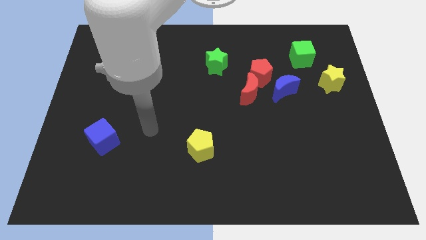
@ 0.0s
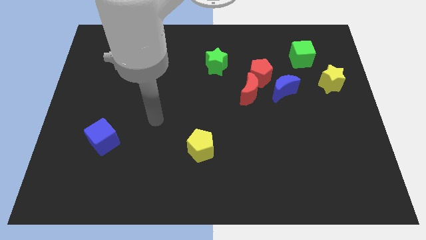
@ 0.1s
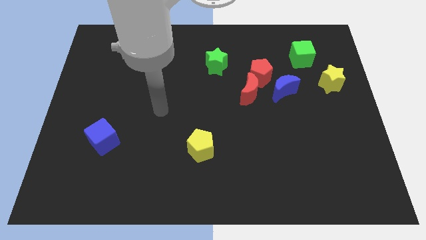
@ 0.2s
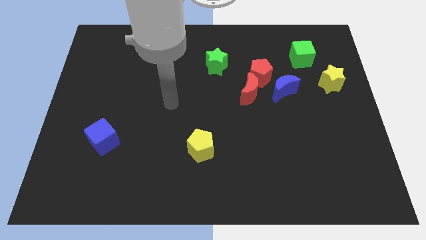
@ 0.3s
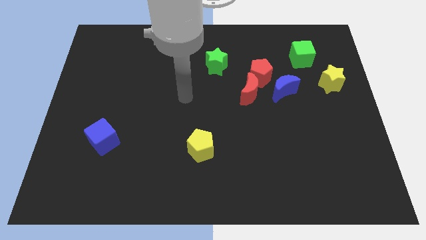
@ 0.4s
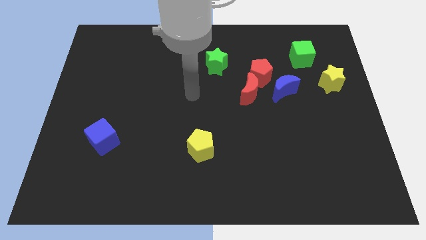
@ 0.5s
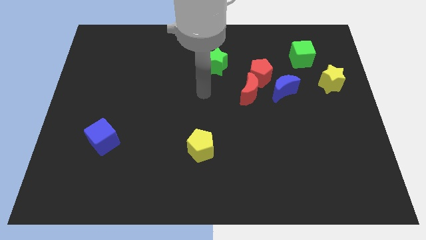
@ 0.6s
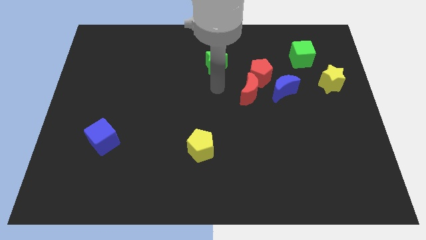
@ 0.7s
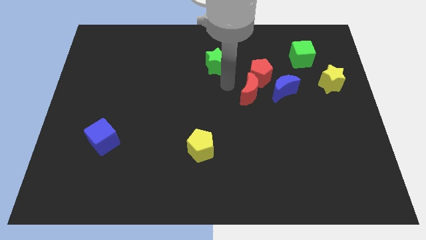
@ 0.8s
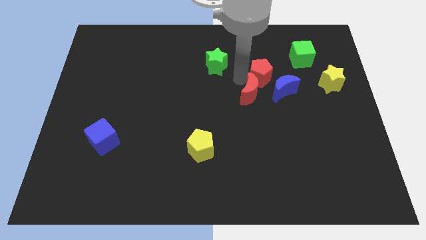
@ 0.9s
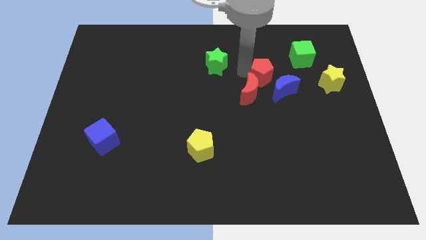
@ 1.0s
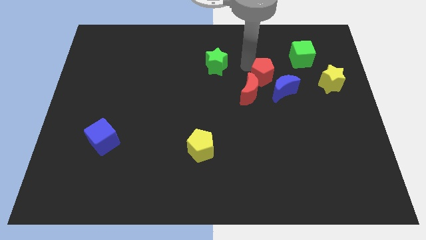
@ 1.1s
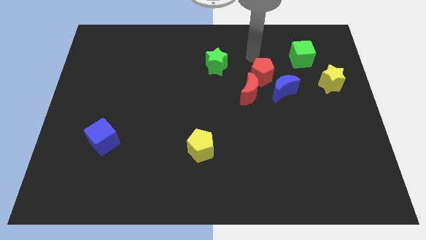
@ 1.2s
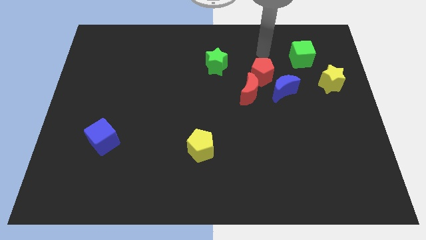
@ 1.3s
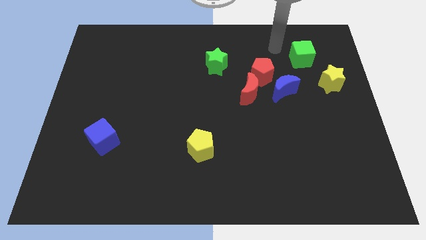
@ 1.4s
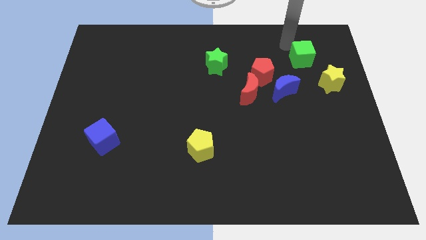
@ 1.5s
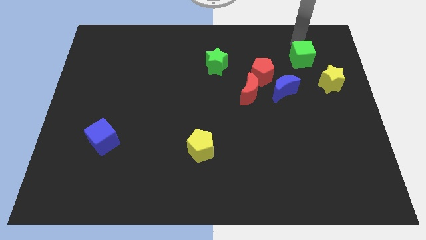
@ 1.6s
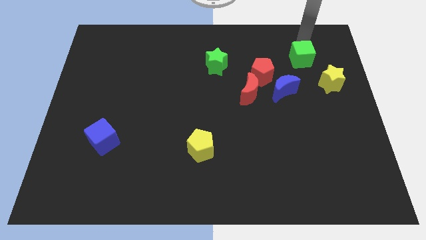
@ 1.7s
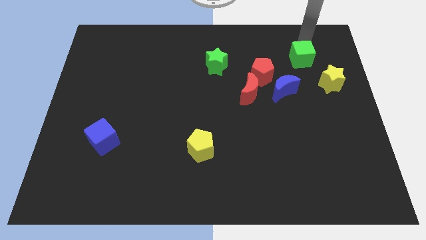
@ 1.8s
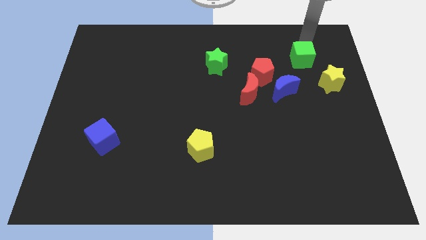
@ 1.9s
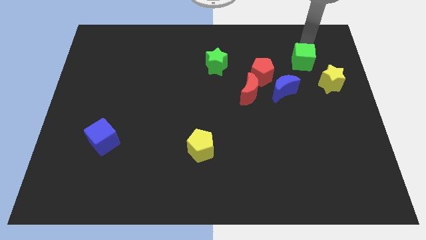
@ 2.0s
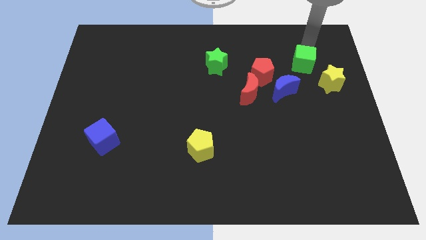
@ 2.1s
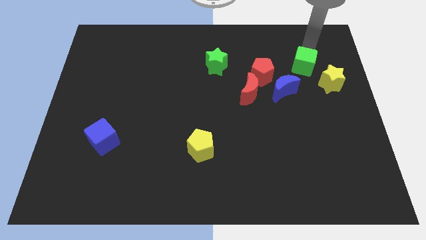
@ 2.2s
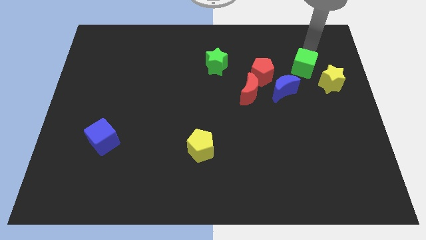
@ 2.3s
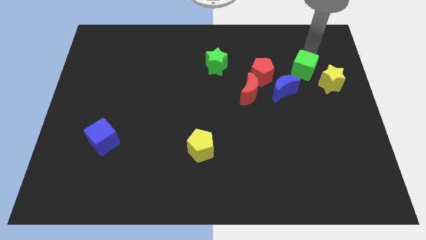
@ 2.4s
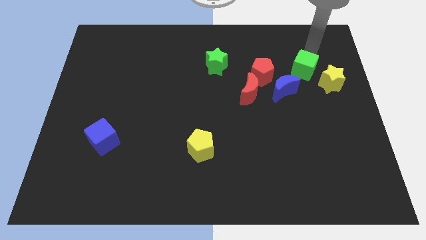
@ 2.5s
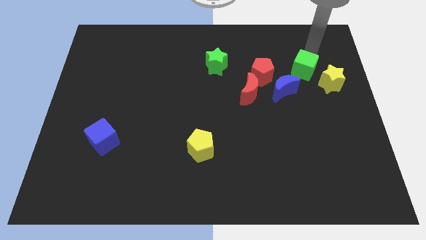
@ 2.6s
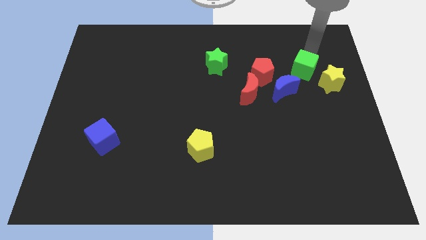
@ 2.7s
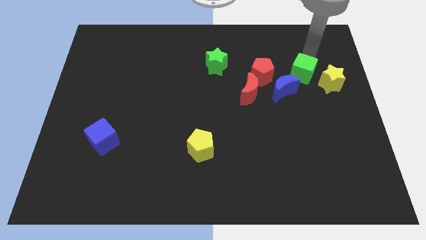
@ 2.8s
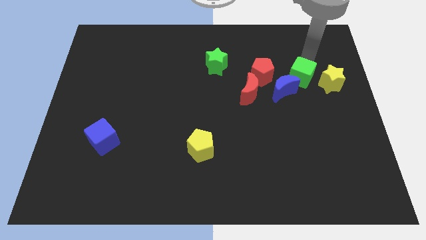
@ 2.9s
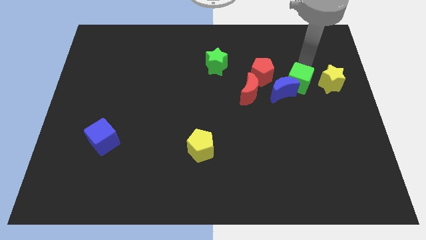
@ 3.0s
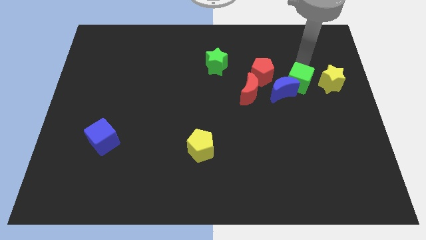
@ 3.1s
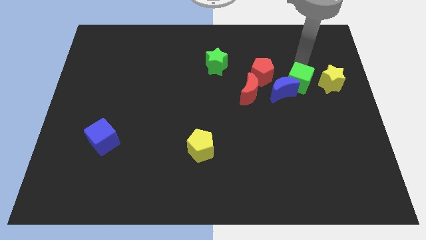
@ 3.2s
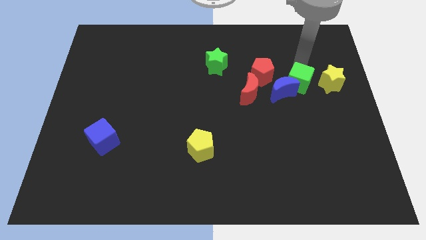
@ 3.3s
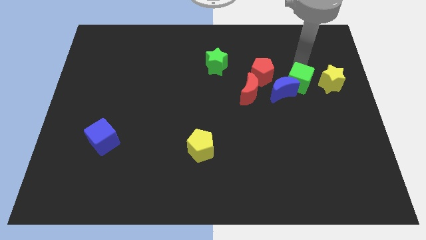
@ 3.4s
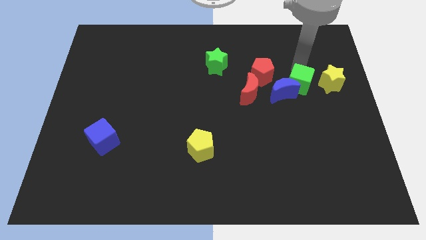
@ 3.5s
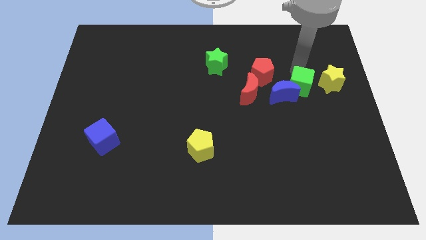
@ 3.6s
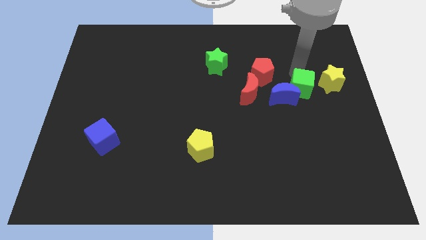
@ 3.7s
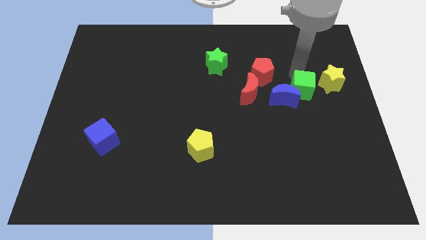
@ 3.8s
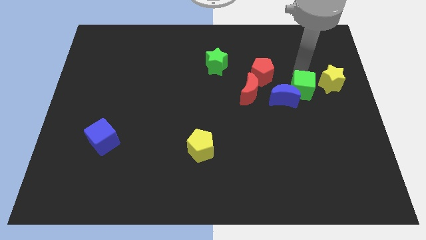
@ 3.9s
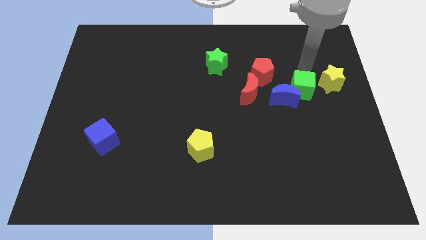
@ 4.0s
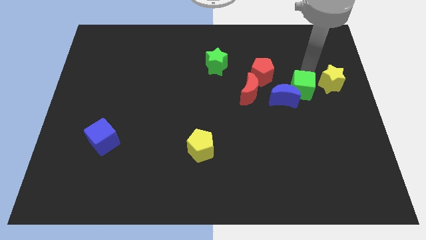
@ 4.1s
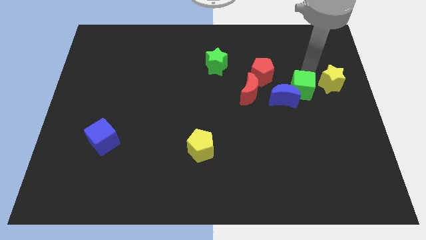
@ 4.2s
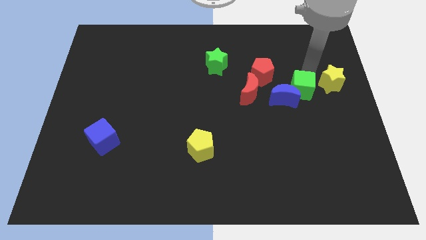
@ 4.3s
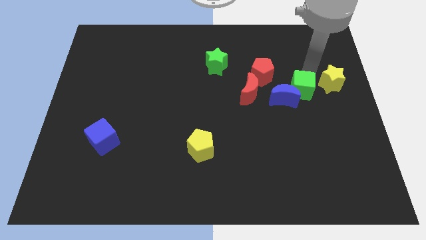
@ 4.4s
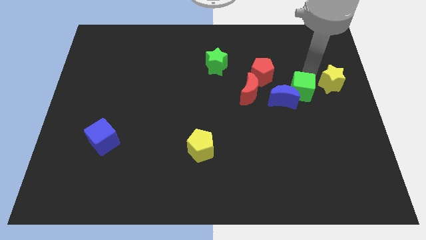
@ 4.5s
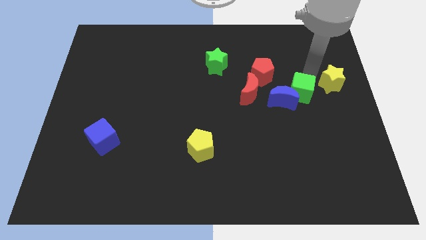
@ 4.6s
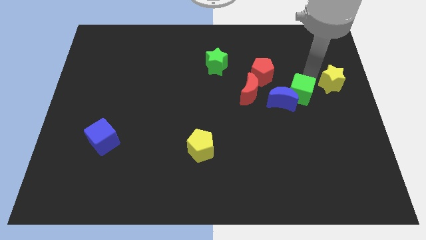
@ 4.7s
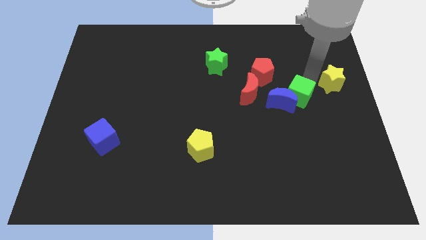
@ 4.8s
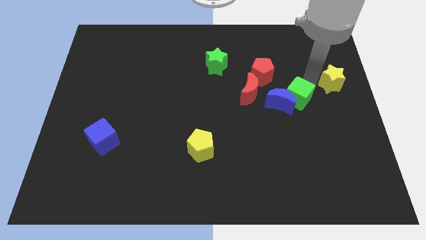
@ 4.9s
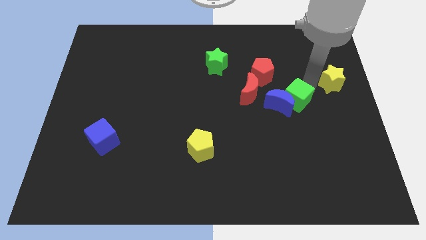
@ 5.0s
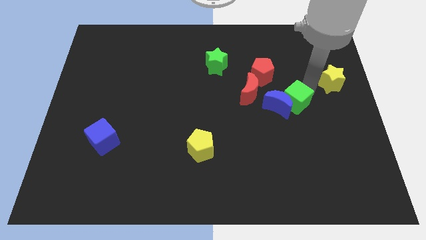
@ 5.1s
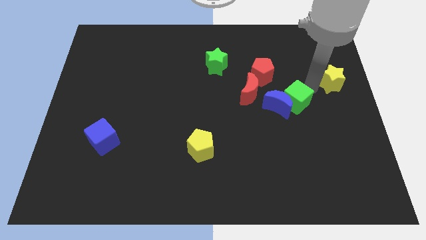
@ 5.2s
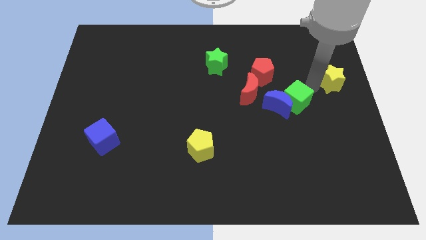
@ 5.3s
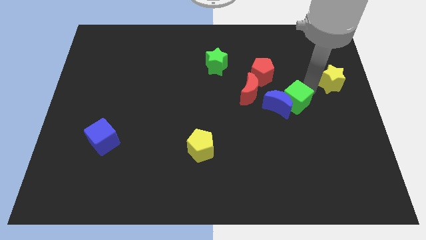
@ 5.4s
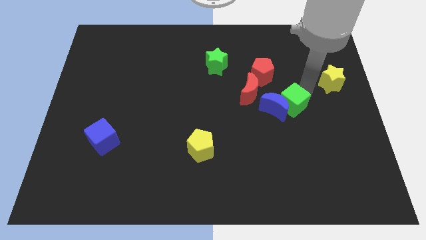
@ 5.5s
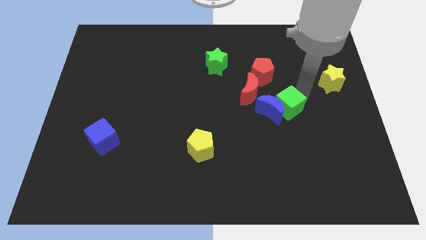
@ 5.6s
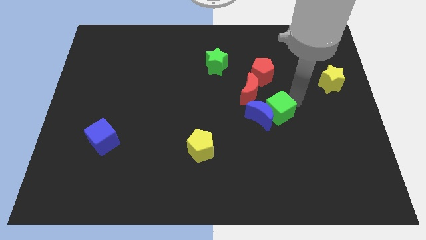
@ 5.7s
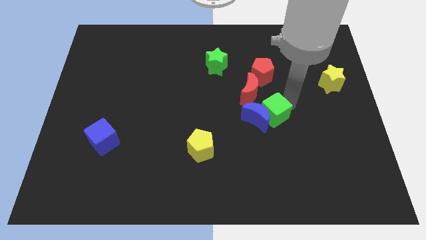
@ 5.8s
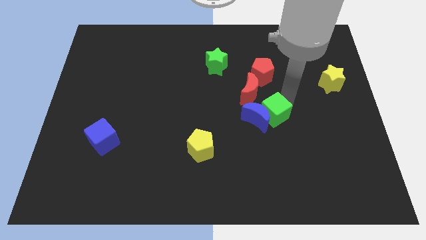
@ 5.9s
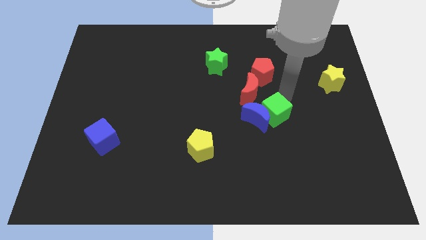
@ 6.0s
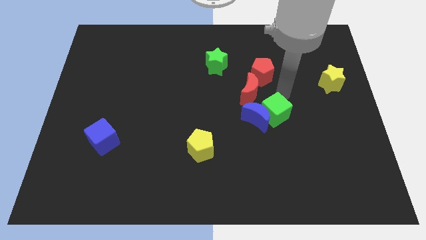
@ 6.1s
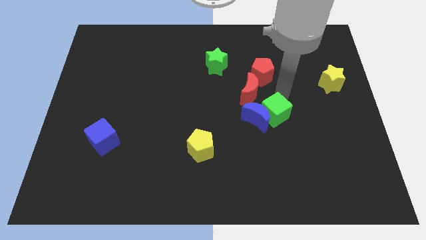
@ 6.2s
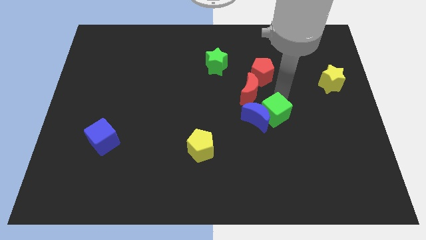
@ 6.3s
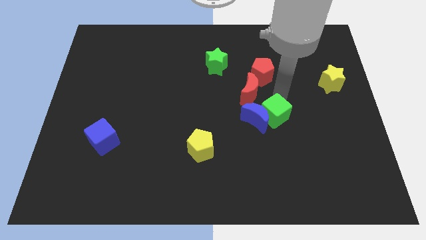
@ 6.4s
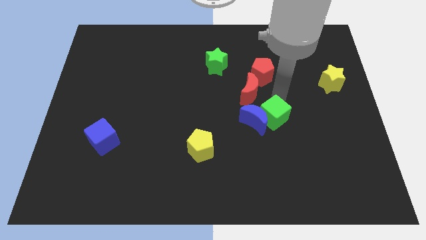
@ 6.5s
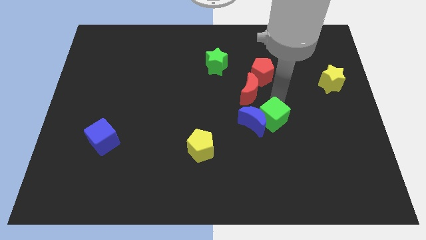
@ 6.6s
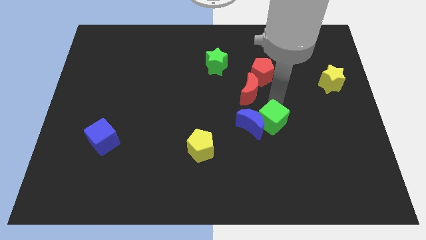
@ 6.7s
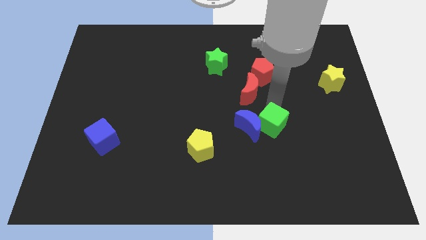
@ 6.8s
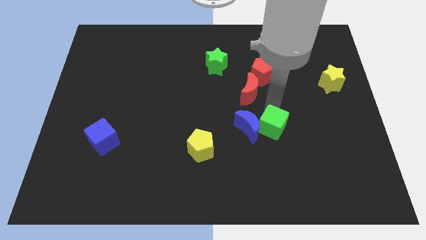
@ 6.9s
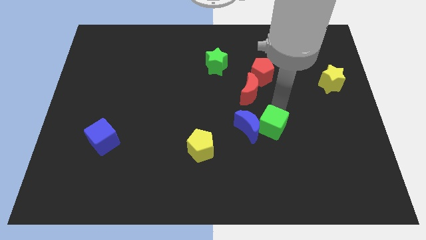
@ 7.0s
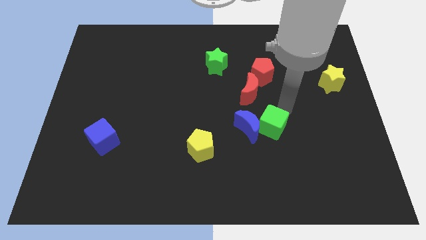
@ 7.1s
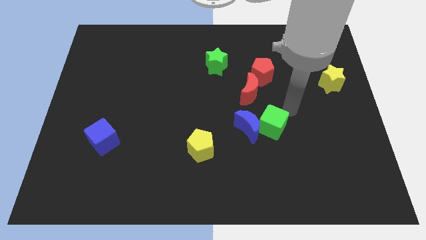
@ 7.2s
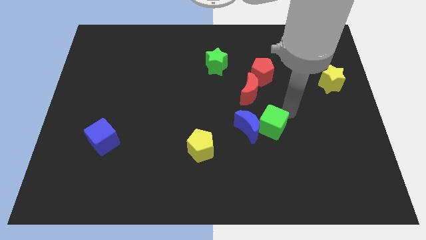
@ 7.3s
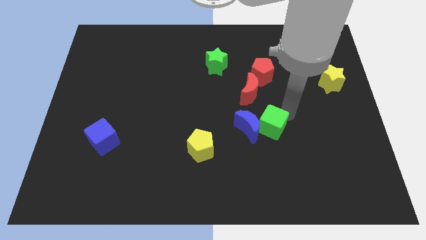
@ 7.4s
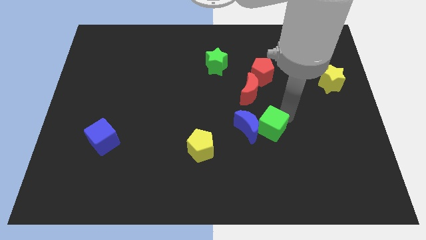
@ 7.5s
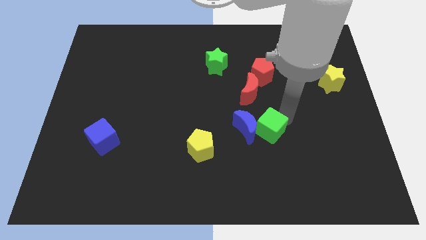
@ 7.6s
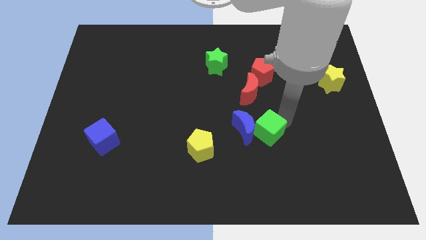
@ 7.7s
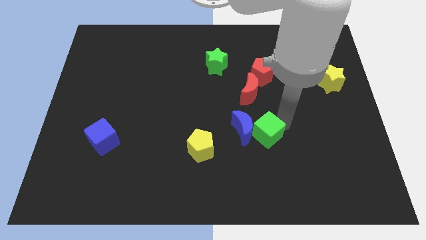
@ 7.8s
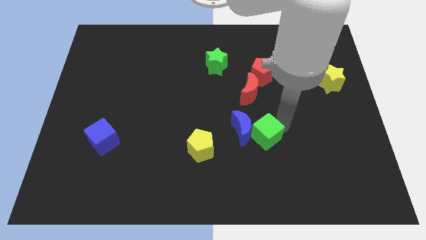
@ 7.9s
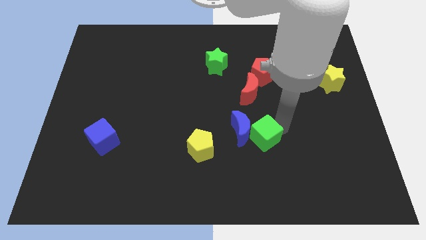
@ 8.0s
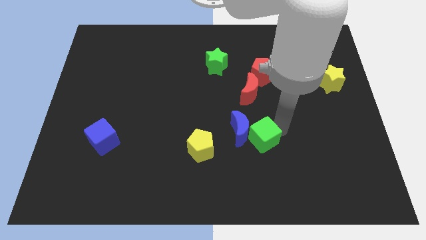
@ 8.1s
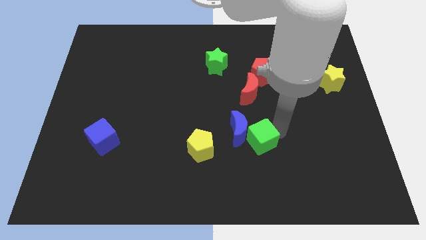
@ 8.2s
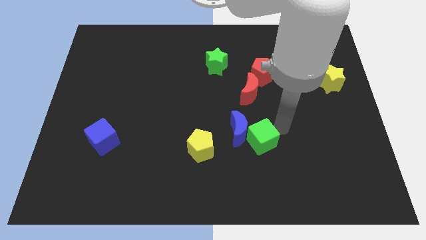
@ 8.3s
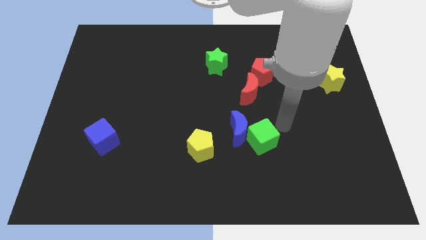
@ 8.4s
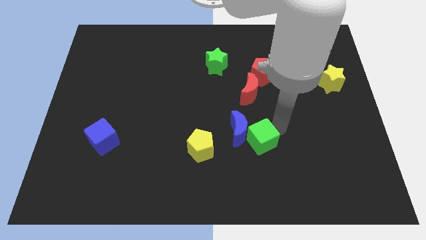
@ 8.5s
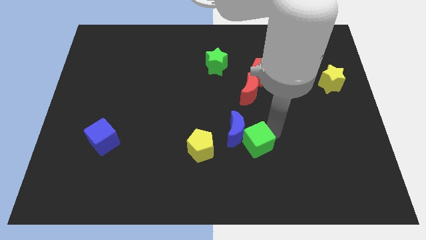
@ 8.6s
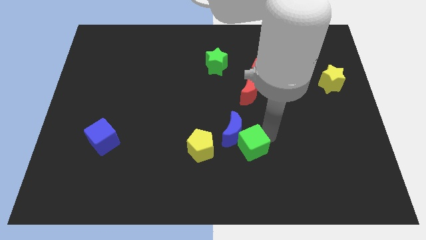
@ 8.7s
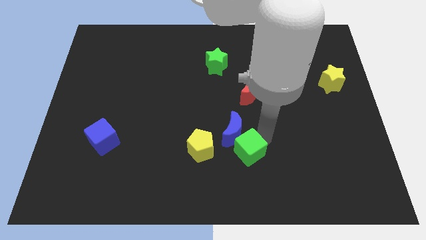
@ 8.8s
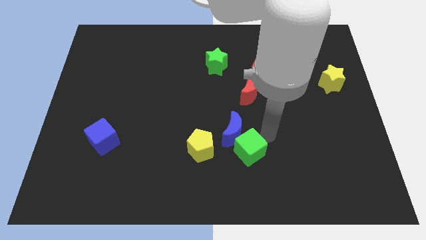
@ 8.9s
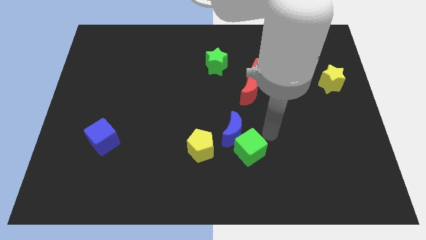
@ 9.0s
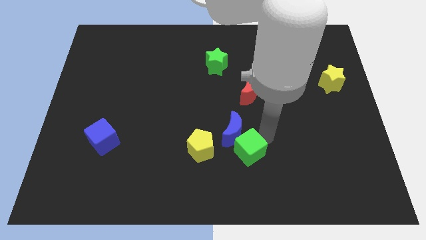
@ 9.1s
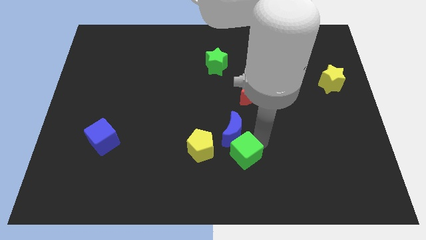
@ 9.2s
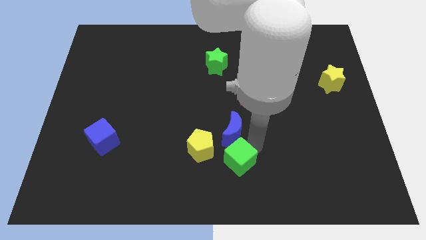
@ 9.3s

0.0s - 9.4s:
put the green cube to the bottom right of the yellow pentagon
